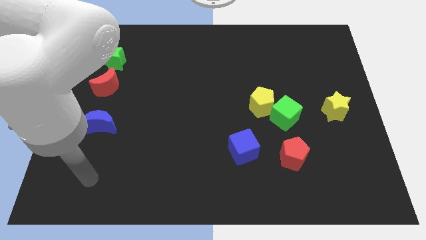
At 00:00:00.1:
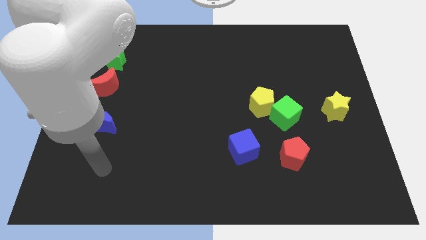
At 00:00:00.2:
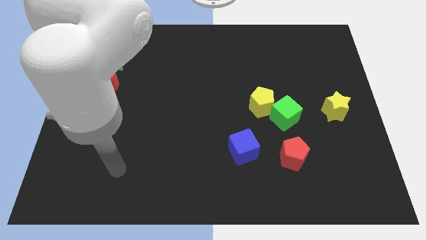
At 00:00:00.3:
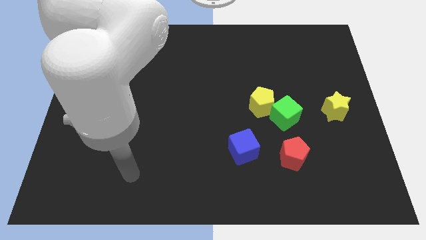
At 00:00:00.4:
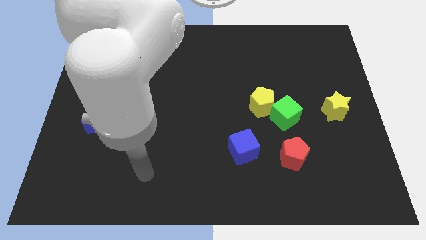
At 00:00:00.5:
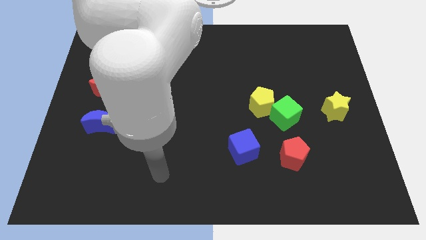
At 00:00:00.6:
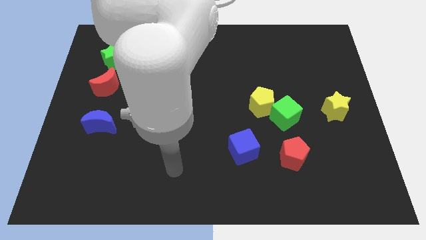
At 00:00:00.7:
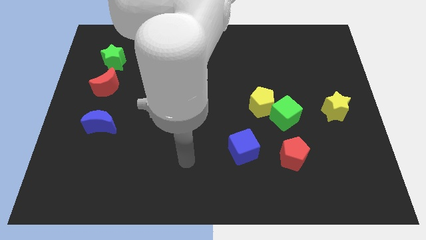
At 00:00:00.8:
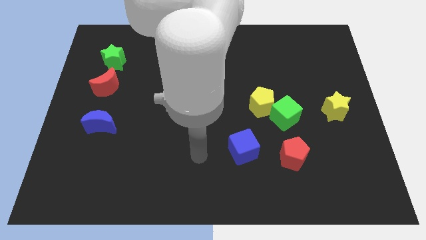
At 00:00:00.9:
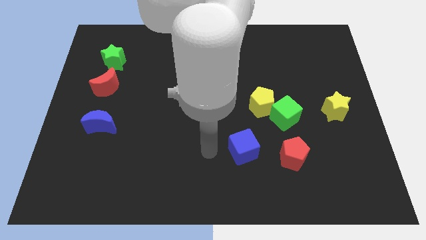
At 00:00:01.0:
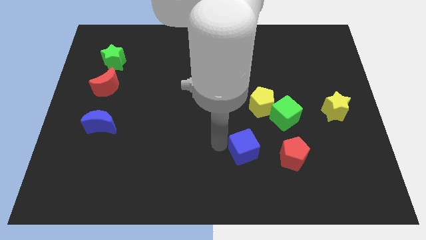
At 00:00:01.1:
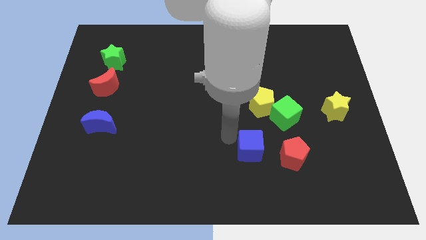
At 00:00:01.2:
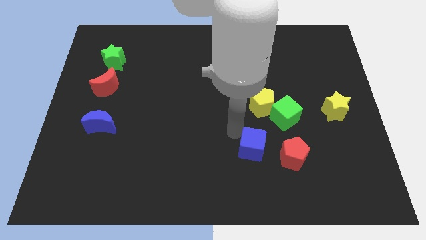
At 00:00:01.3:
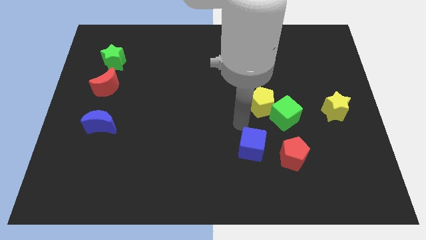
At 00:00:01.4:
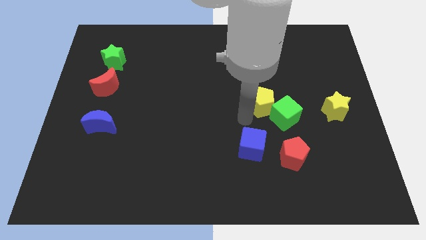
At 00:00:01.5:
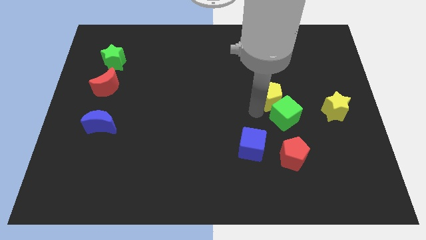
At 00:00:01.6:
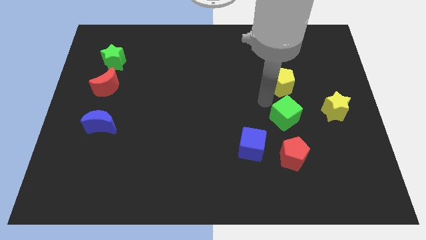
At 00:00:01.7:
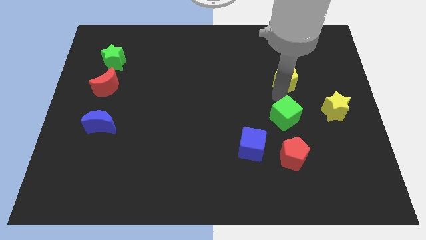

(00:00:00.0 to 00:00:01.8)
move the green cube away from the yellow pentagon

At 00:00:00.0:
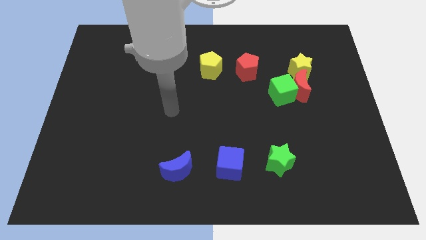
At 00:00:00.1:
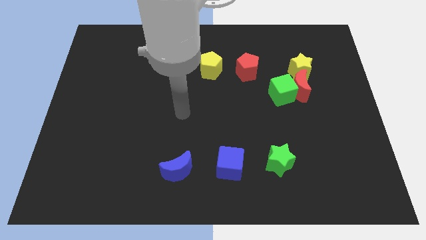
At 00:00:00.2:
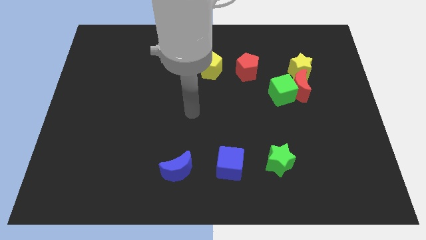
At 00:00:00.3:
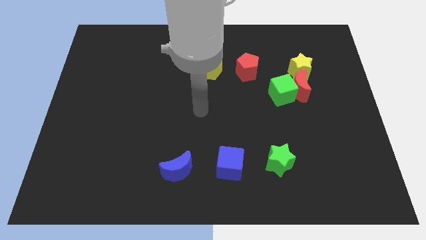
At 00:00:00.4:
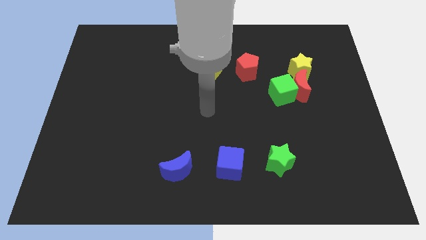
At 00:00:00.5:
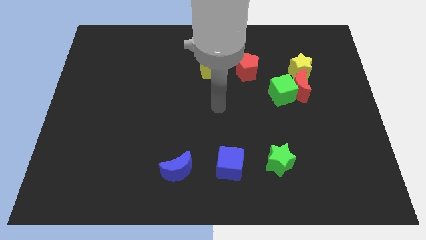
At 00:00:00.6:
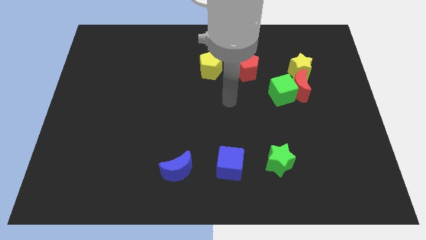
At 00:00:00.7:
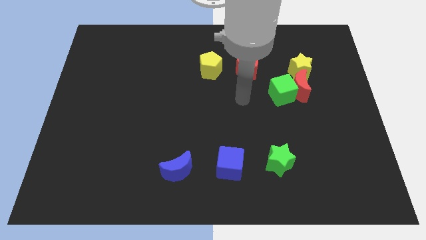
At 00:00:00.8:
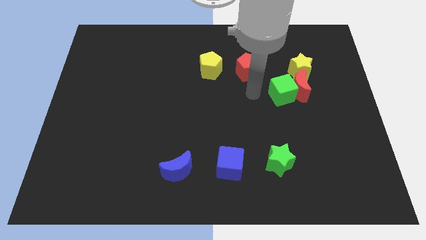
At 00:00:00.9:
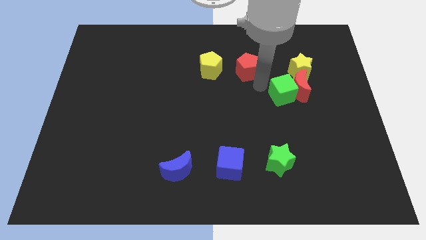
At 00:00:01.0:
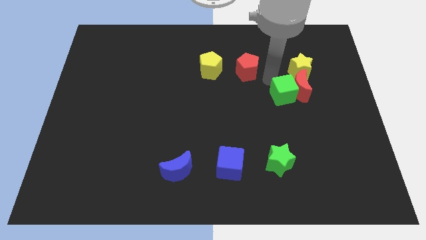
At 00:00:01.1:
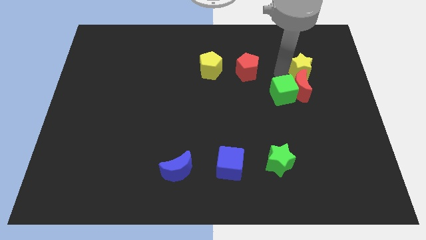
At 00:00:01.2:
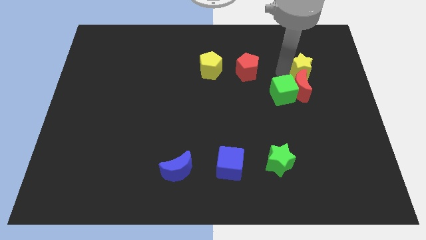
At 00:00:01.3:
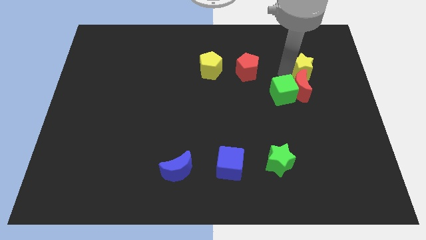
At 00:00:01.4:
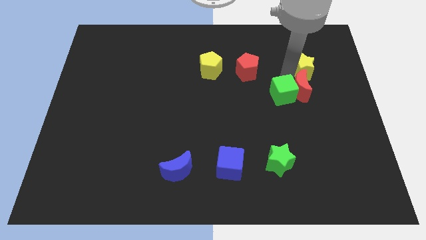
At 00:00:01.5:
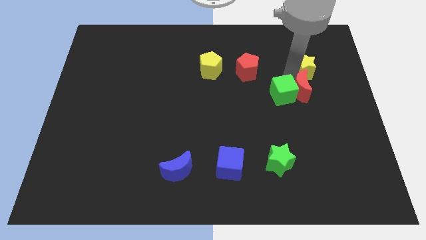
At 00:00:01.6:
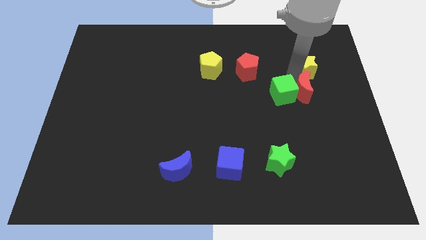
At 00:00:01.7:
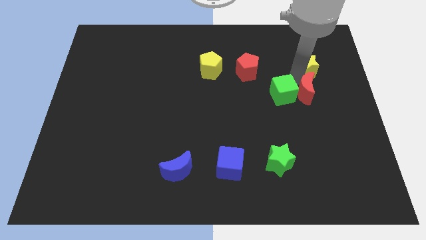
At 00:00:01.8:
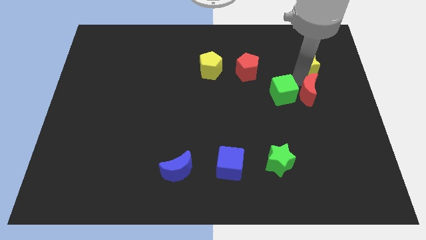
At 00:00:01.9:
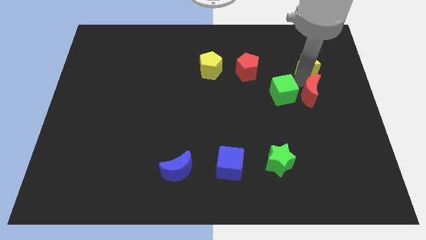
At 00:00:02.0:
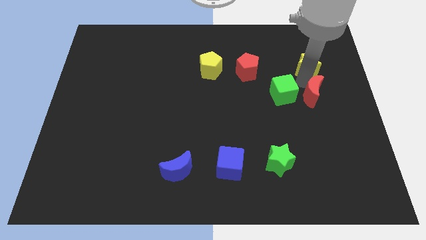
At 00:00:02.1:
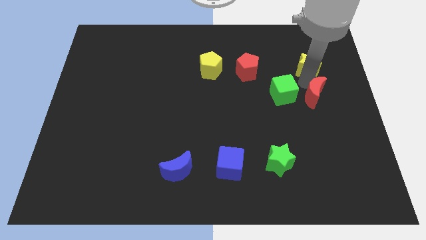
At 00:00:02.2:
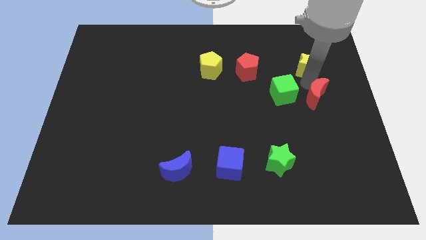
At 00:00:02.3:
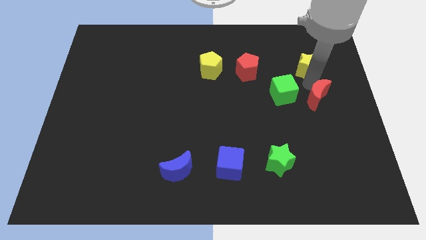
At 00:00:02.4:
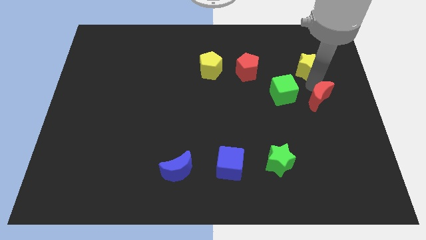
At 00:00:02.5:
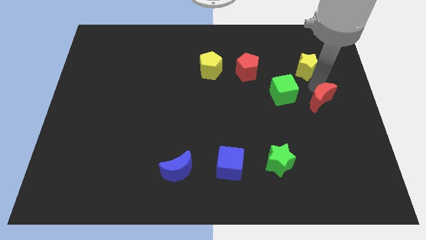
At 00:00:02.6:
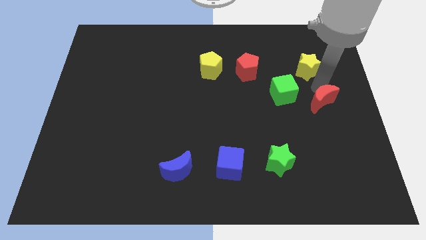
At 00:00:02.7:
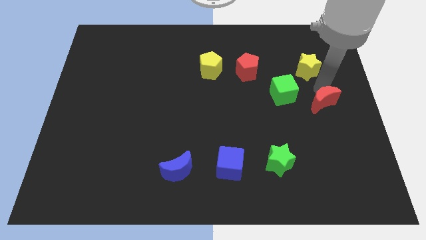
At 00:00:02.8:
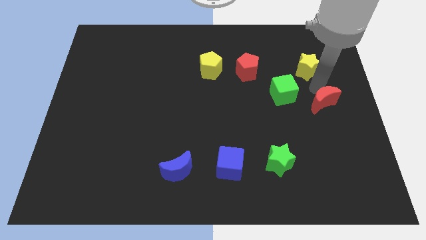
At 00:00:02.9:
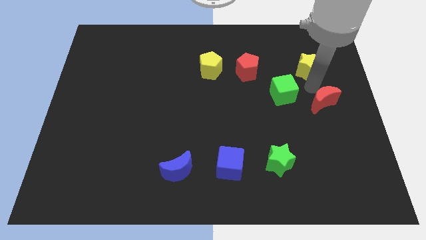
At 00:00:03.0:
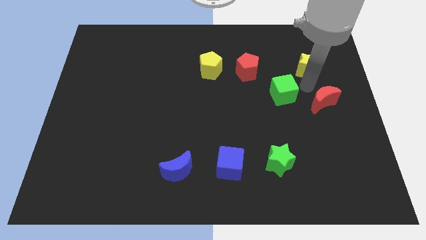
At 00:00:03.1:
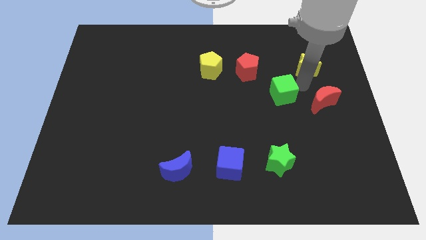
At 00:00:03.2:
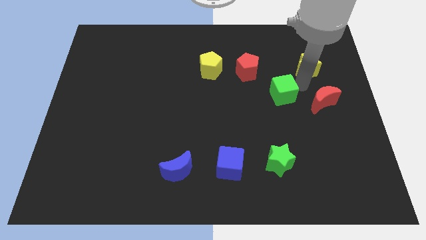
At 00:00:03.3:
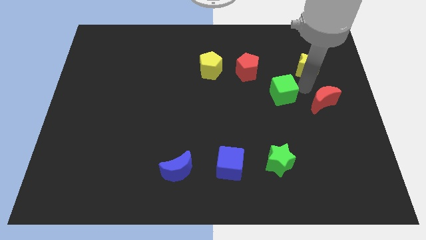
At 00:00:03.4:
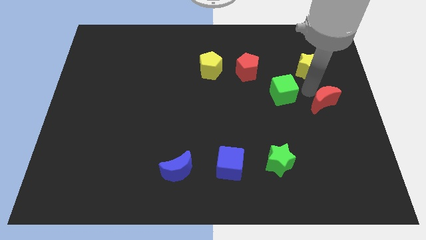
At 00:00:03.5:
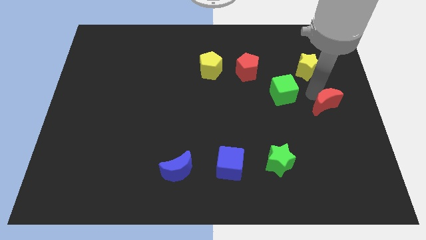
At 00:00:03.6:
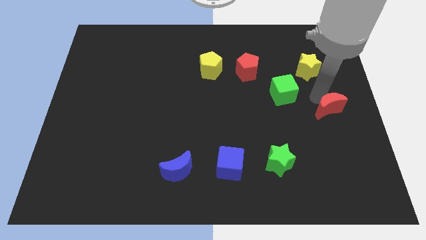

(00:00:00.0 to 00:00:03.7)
separate the red moon from the green cube and yellow star

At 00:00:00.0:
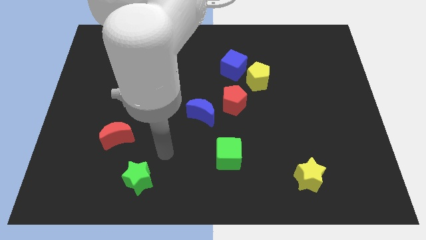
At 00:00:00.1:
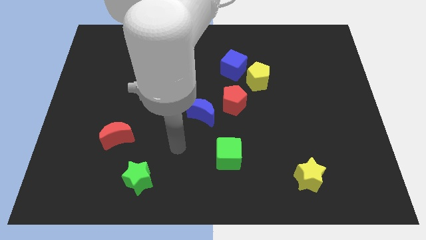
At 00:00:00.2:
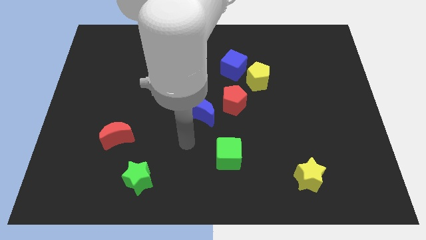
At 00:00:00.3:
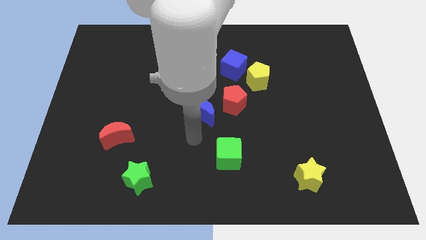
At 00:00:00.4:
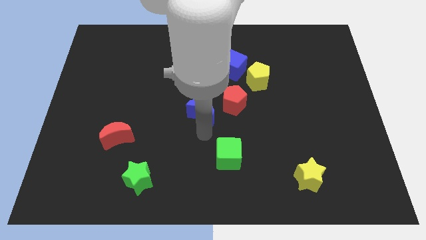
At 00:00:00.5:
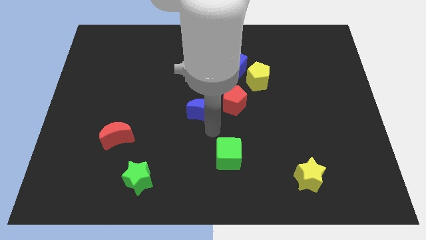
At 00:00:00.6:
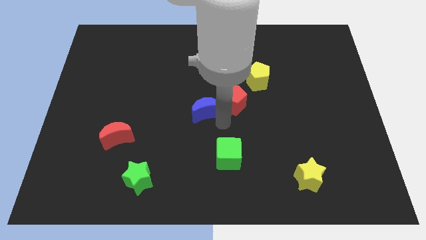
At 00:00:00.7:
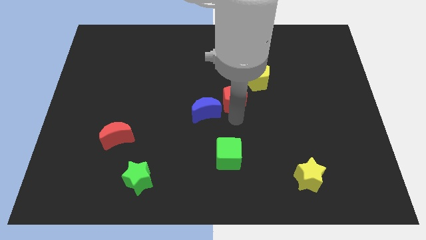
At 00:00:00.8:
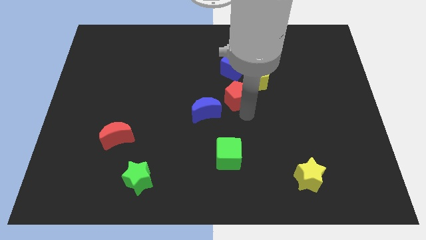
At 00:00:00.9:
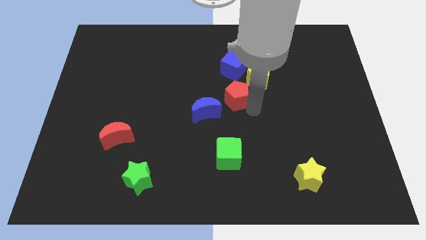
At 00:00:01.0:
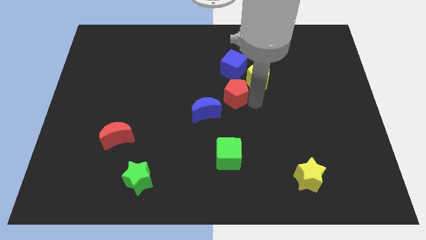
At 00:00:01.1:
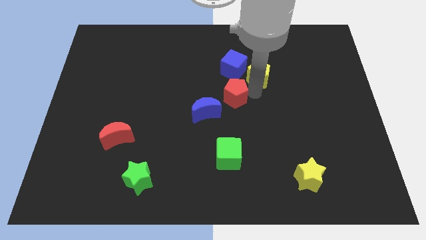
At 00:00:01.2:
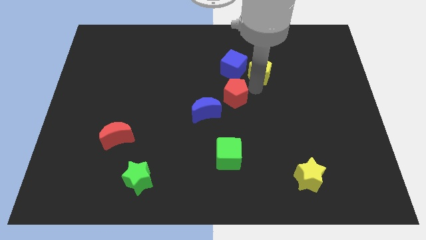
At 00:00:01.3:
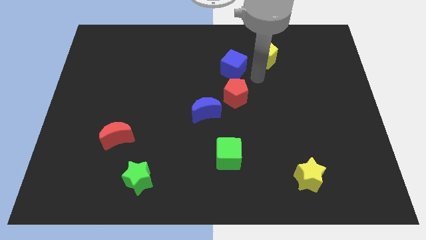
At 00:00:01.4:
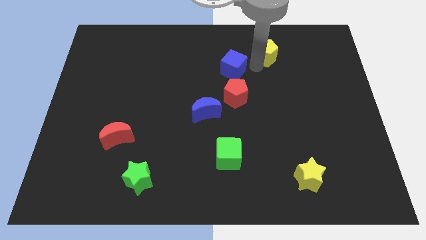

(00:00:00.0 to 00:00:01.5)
separate the blue cube from the yellow pentagon

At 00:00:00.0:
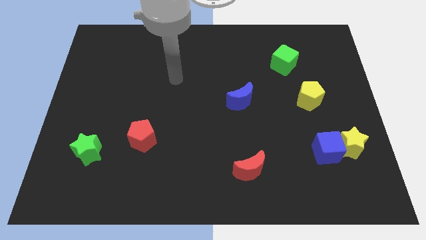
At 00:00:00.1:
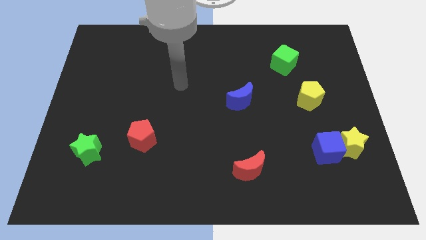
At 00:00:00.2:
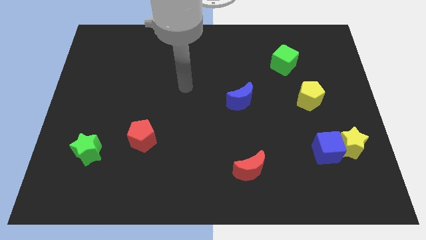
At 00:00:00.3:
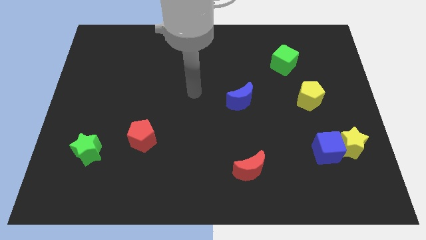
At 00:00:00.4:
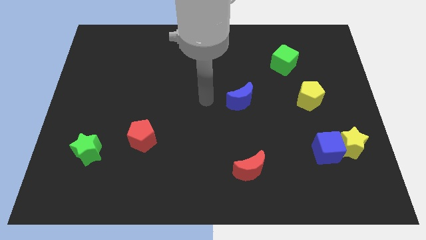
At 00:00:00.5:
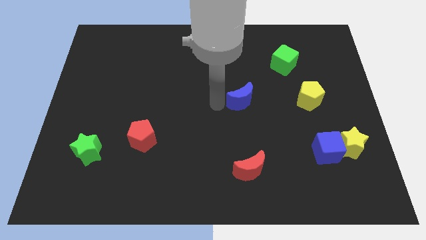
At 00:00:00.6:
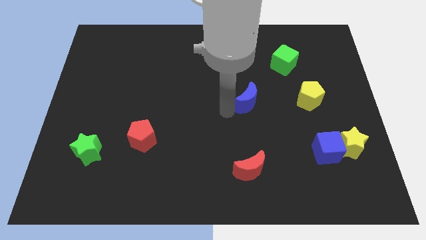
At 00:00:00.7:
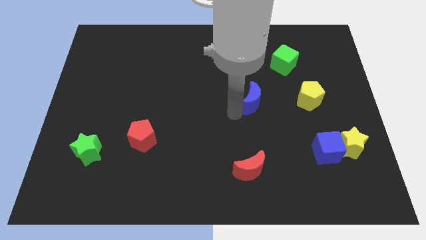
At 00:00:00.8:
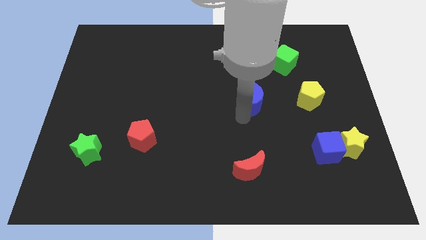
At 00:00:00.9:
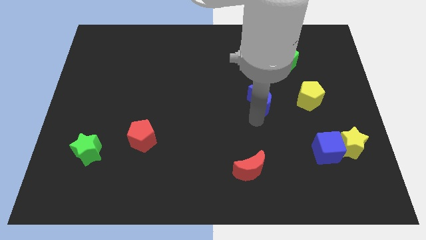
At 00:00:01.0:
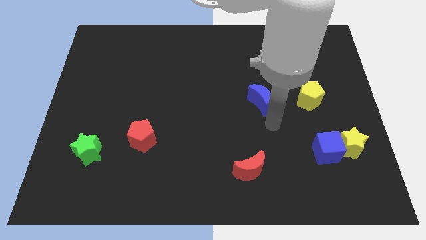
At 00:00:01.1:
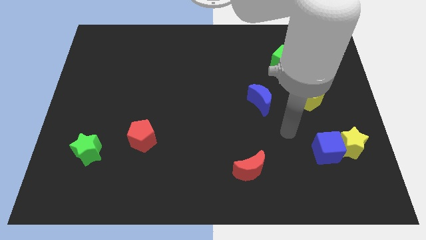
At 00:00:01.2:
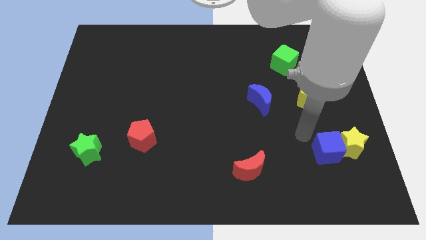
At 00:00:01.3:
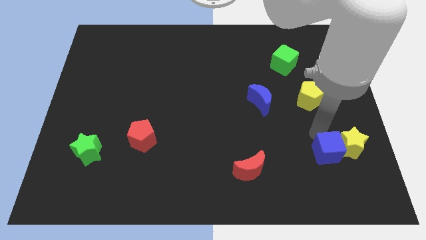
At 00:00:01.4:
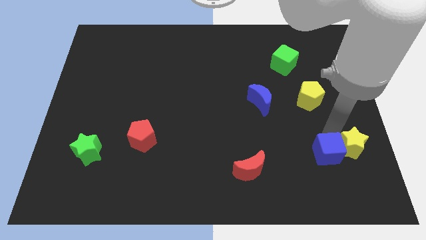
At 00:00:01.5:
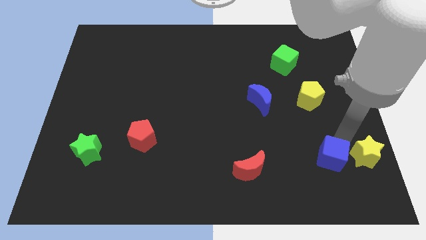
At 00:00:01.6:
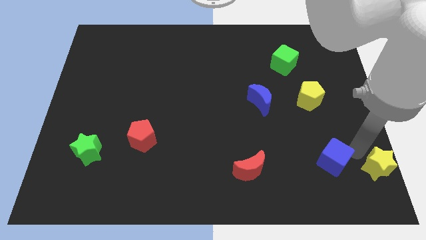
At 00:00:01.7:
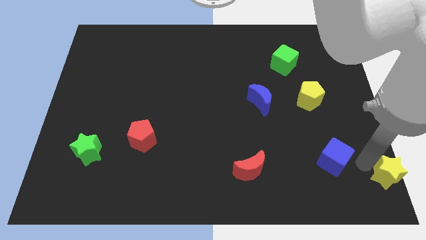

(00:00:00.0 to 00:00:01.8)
separate the blue cube from the yellow star

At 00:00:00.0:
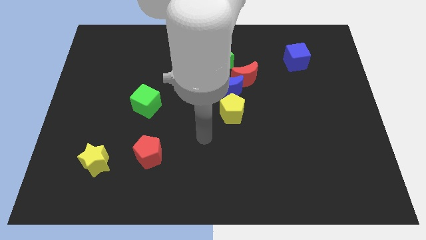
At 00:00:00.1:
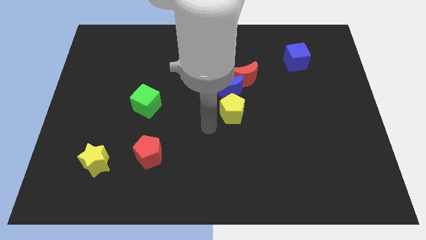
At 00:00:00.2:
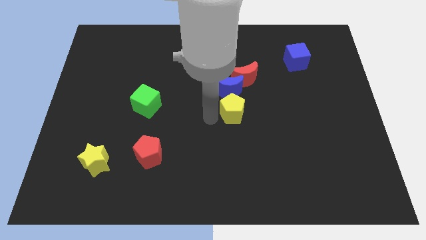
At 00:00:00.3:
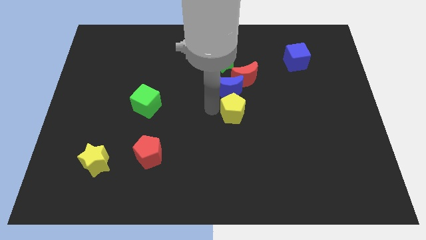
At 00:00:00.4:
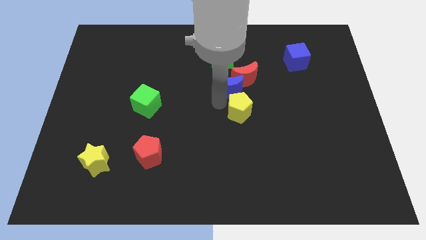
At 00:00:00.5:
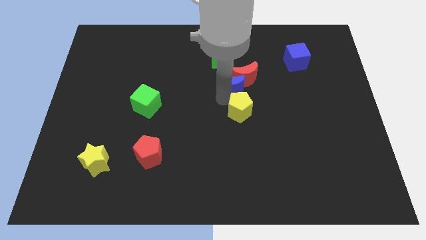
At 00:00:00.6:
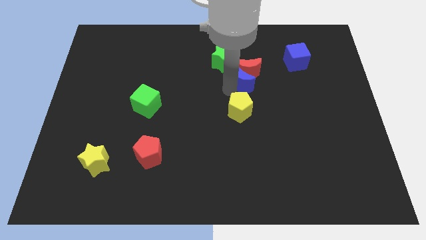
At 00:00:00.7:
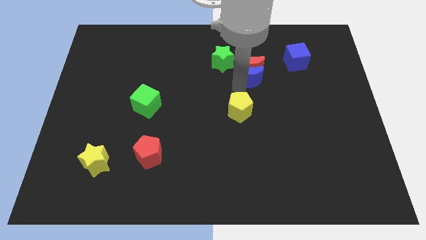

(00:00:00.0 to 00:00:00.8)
separate the yellow pentagon from the blue moon
